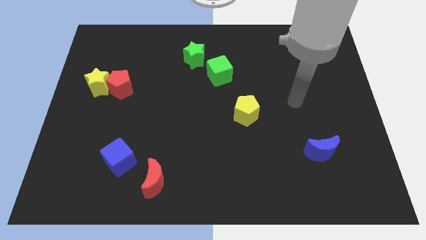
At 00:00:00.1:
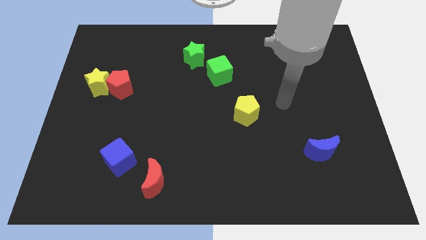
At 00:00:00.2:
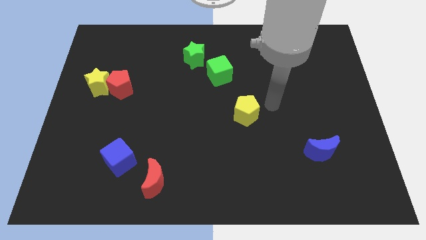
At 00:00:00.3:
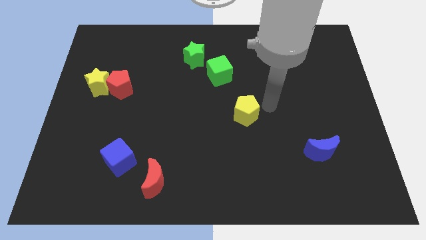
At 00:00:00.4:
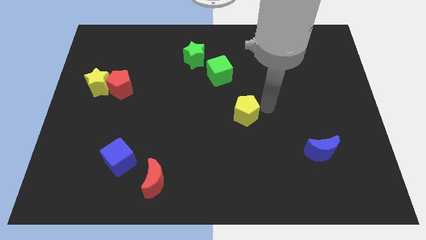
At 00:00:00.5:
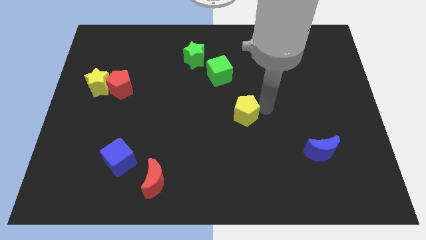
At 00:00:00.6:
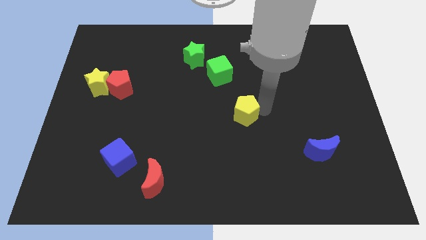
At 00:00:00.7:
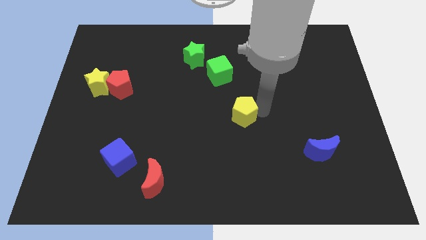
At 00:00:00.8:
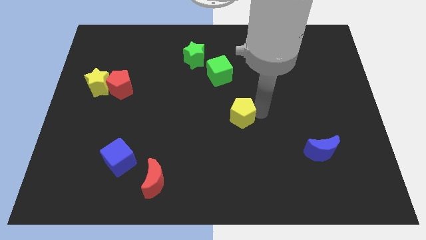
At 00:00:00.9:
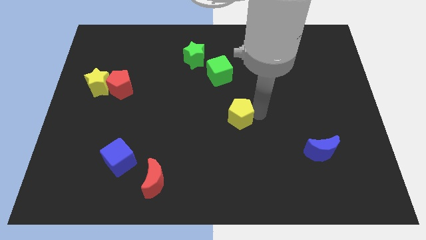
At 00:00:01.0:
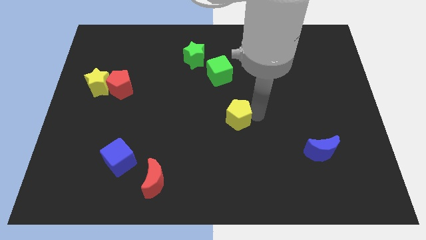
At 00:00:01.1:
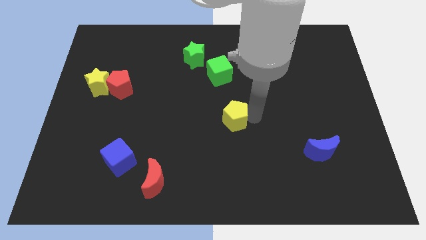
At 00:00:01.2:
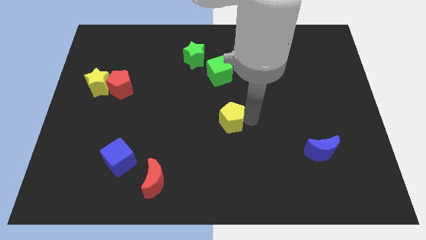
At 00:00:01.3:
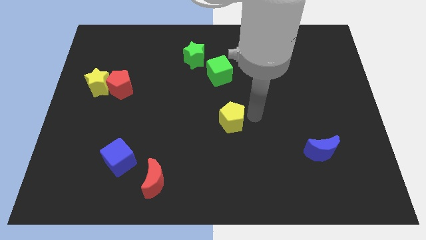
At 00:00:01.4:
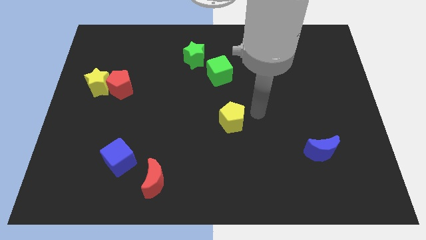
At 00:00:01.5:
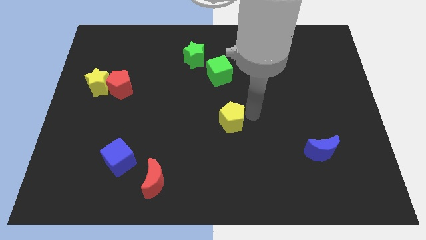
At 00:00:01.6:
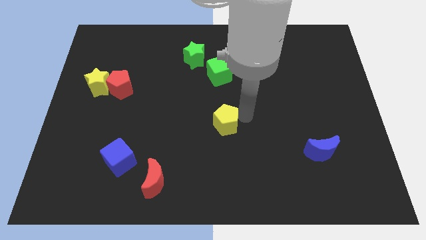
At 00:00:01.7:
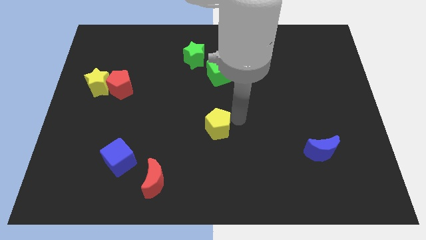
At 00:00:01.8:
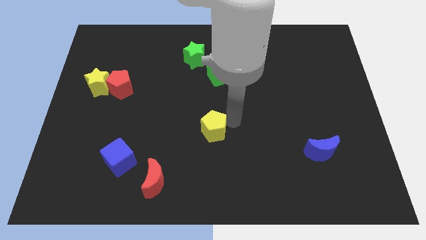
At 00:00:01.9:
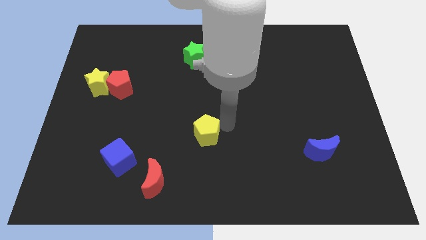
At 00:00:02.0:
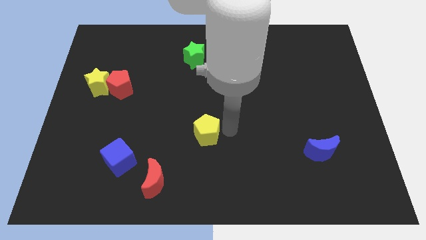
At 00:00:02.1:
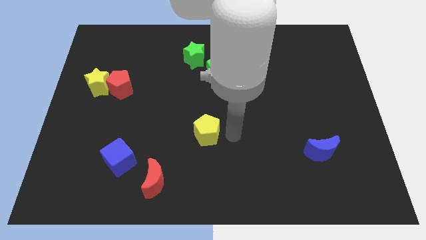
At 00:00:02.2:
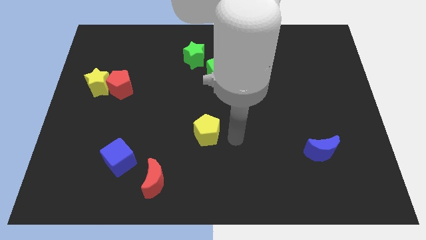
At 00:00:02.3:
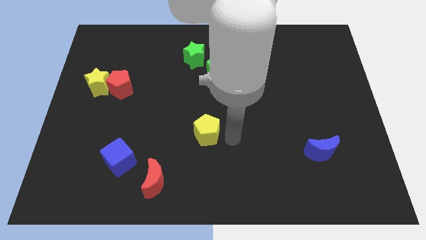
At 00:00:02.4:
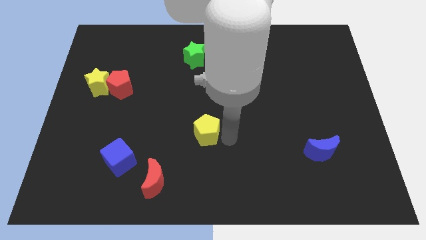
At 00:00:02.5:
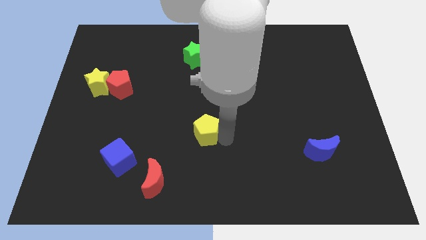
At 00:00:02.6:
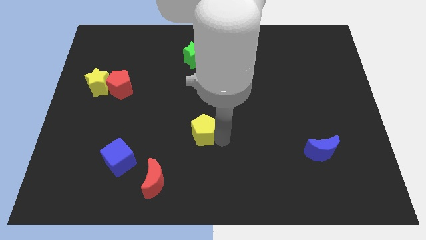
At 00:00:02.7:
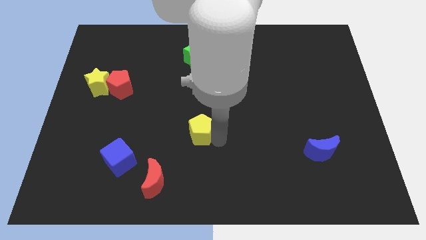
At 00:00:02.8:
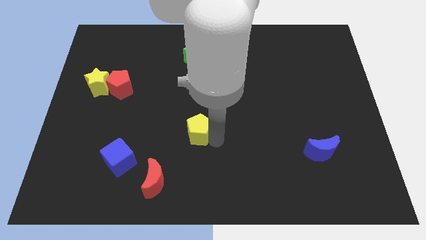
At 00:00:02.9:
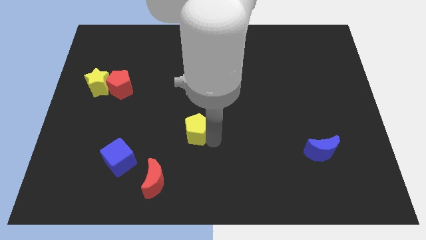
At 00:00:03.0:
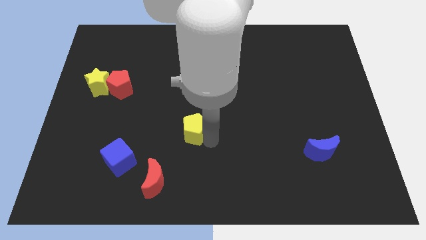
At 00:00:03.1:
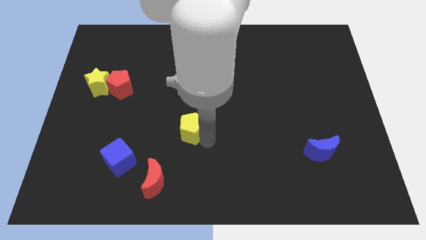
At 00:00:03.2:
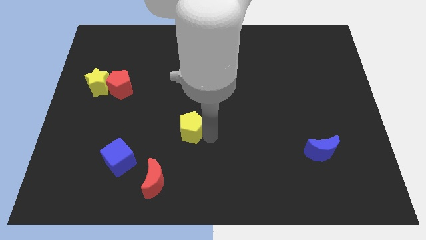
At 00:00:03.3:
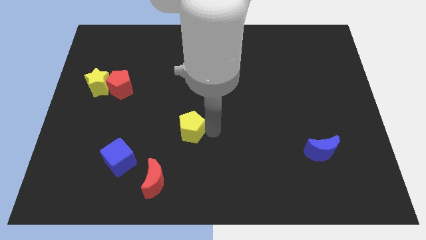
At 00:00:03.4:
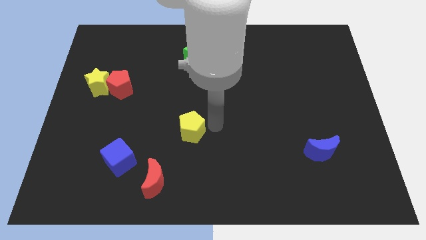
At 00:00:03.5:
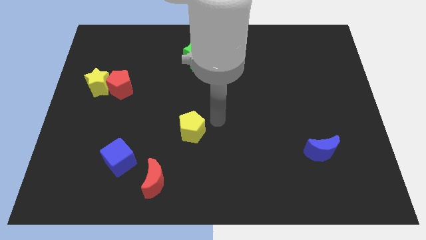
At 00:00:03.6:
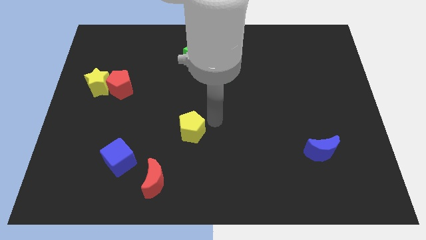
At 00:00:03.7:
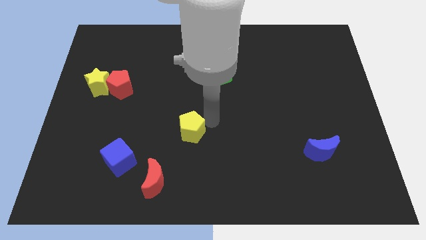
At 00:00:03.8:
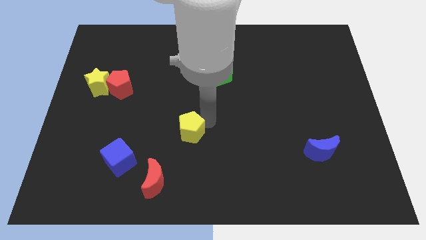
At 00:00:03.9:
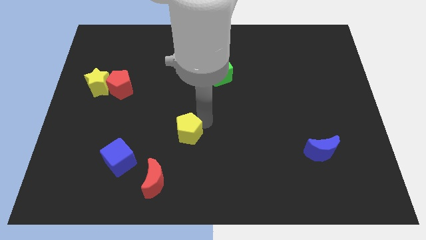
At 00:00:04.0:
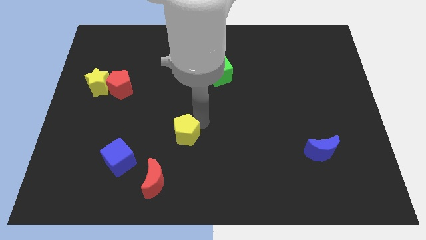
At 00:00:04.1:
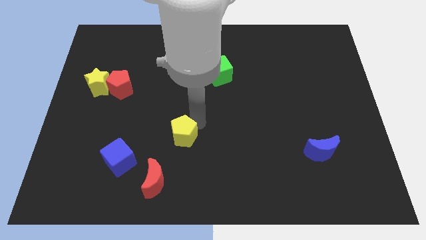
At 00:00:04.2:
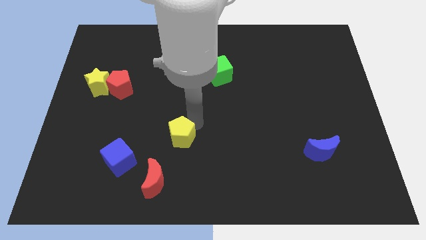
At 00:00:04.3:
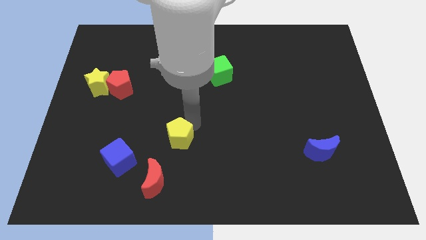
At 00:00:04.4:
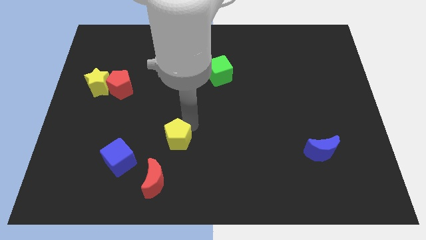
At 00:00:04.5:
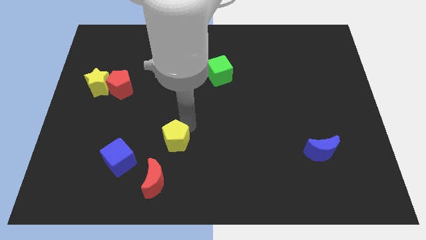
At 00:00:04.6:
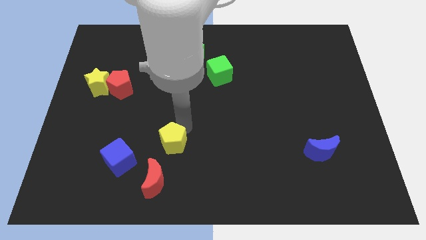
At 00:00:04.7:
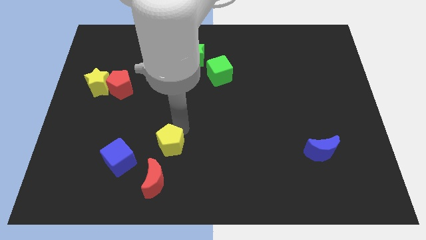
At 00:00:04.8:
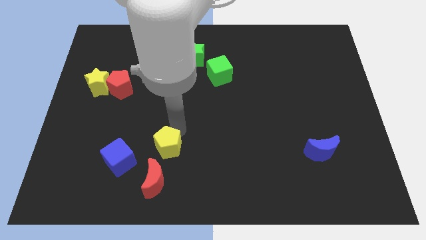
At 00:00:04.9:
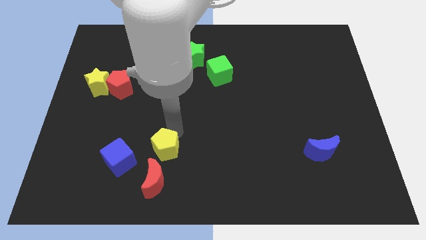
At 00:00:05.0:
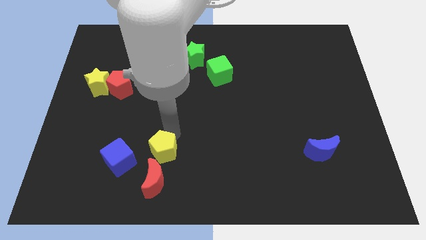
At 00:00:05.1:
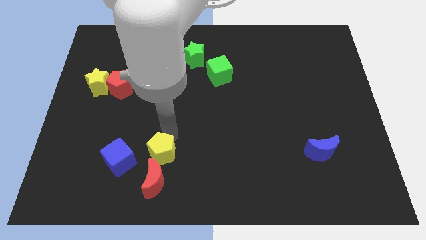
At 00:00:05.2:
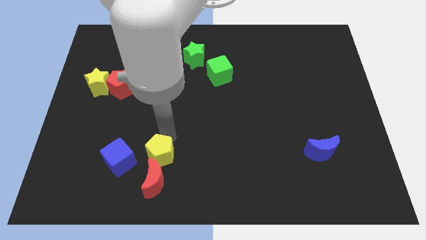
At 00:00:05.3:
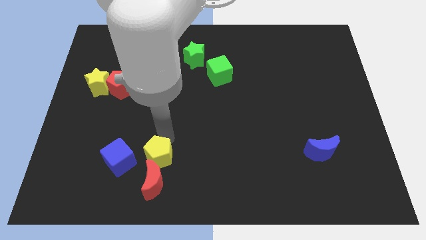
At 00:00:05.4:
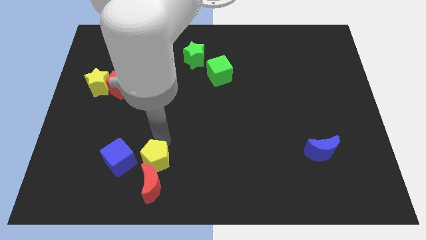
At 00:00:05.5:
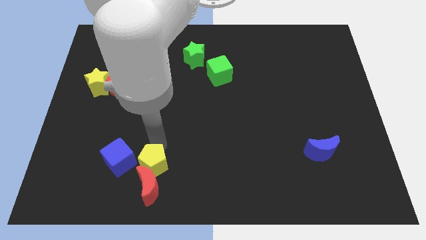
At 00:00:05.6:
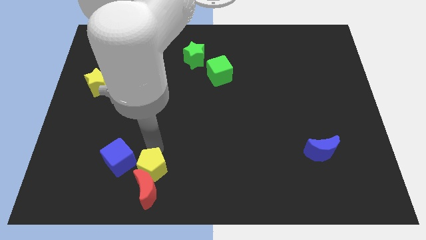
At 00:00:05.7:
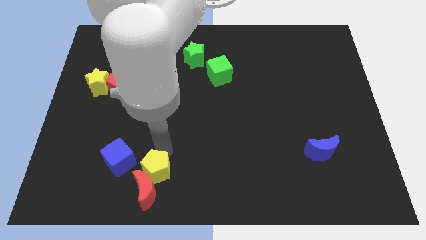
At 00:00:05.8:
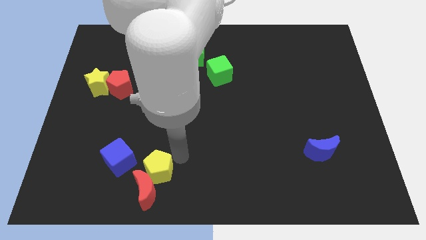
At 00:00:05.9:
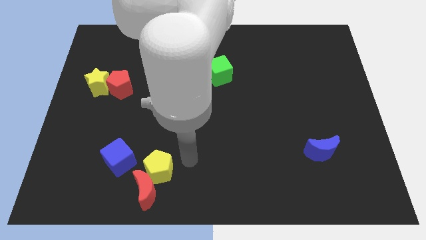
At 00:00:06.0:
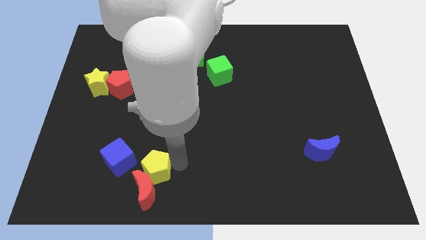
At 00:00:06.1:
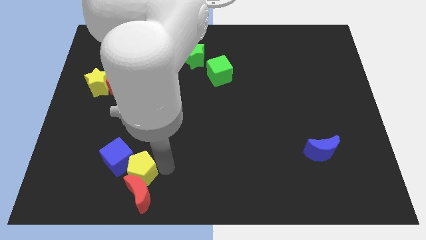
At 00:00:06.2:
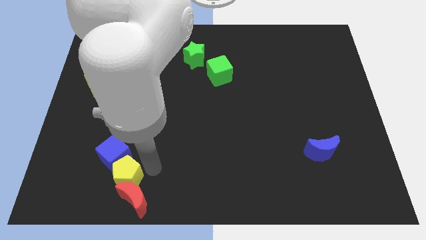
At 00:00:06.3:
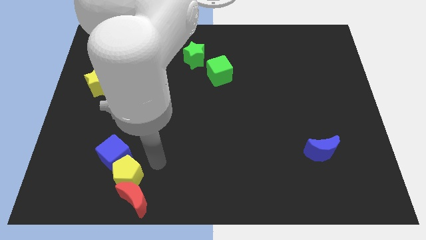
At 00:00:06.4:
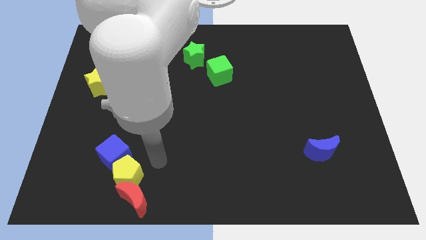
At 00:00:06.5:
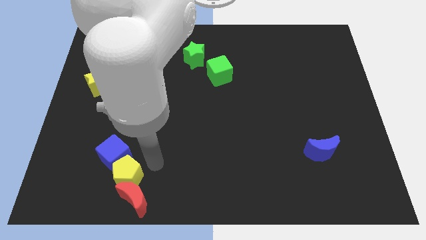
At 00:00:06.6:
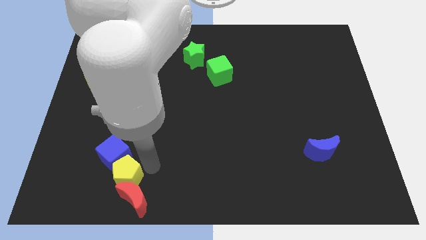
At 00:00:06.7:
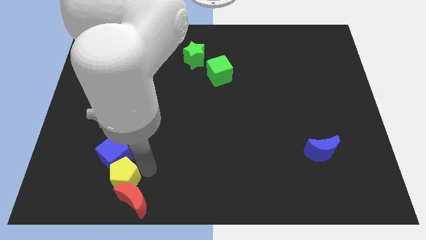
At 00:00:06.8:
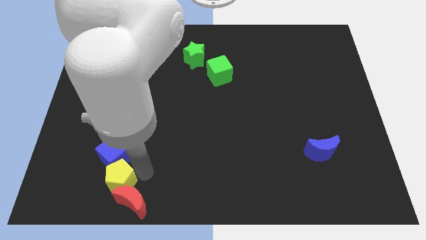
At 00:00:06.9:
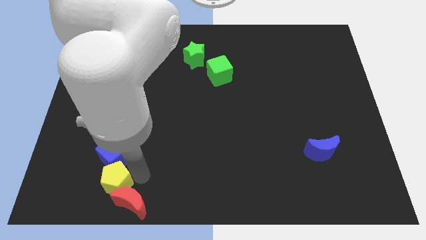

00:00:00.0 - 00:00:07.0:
move the yellow pentagon to the left of the red moon

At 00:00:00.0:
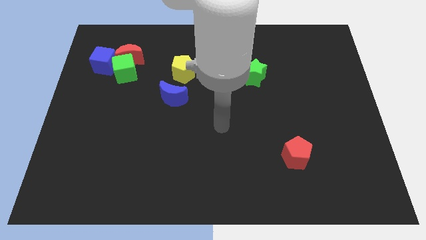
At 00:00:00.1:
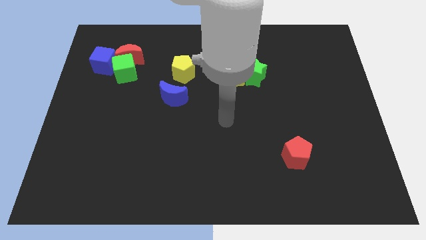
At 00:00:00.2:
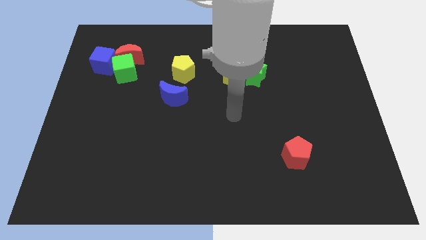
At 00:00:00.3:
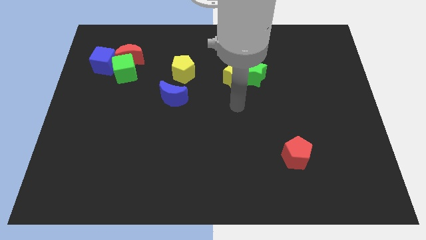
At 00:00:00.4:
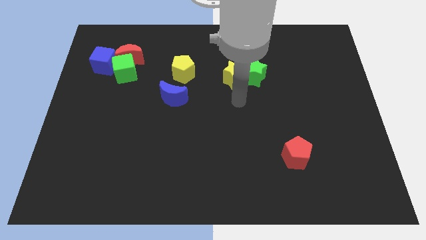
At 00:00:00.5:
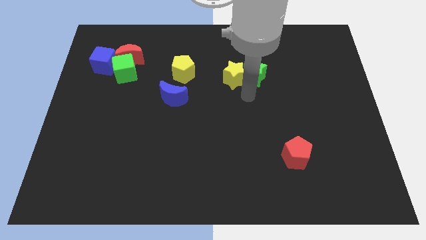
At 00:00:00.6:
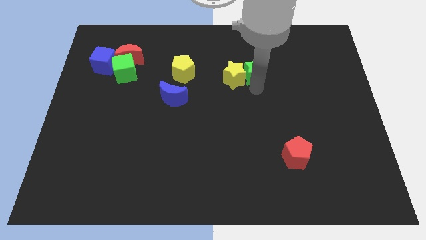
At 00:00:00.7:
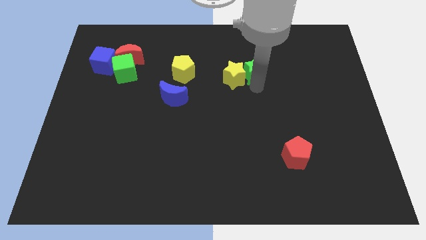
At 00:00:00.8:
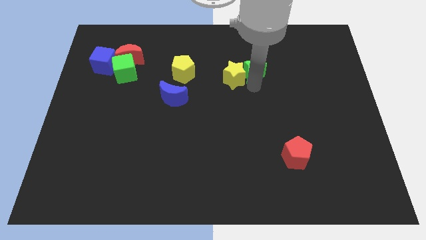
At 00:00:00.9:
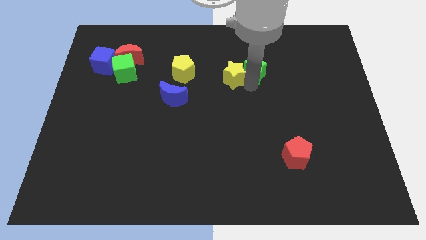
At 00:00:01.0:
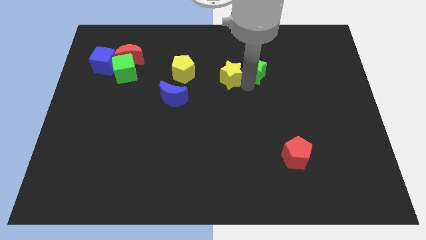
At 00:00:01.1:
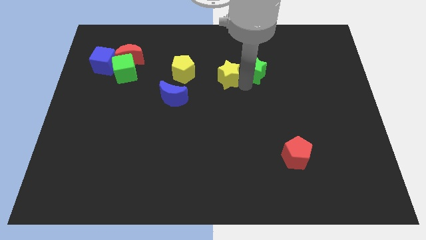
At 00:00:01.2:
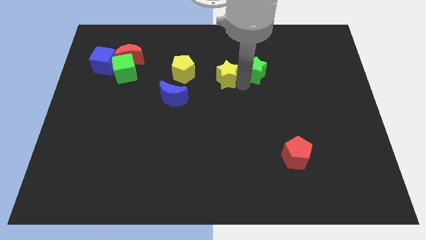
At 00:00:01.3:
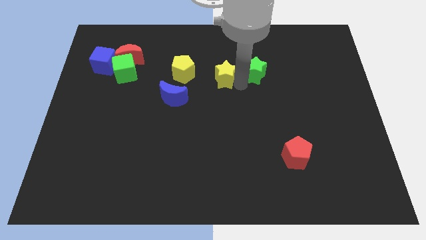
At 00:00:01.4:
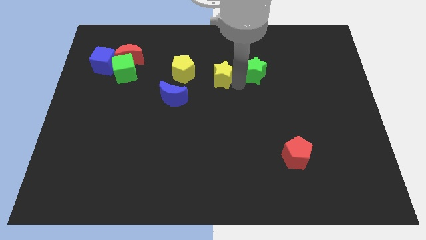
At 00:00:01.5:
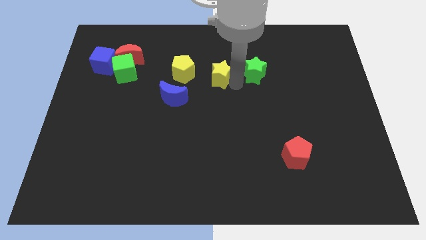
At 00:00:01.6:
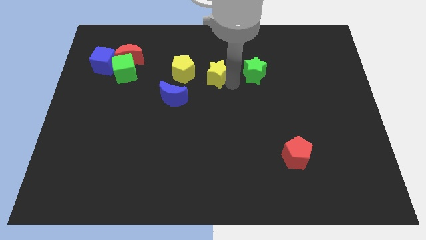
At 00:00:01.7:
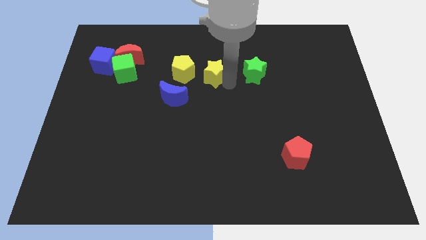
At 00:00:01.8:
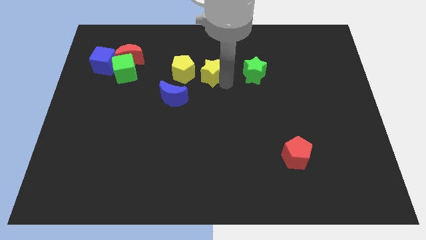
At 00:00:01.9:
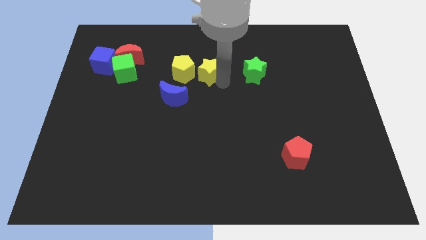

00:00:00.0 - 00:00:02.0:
push the yellow star to the top right of the yellow pentagon
